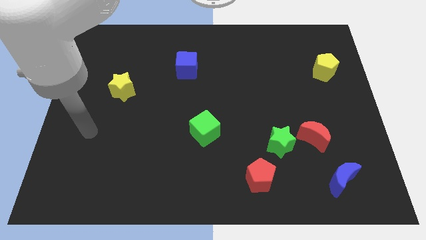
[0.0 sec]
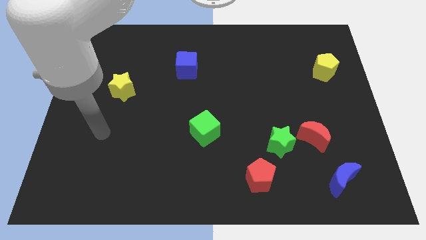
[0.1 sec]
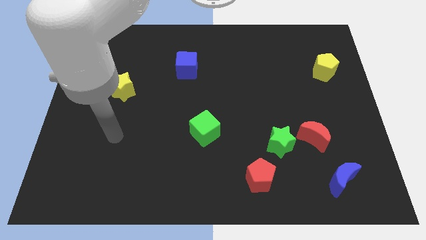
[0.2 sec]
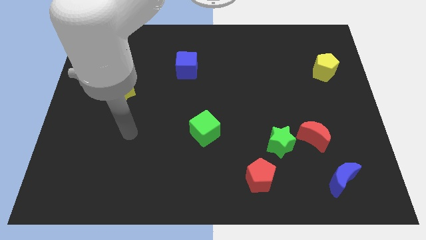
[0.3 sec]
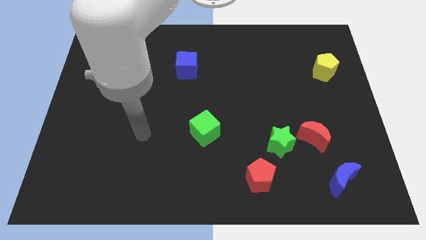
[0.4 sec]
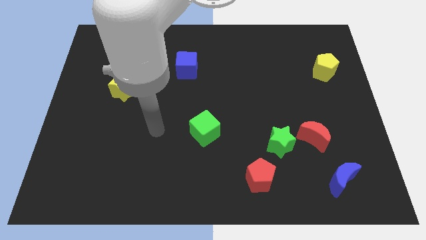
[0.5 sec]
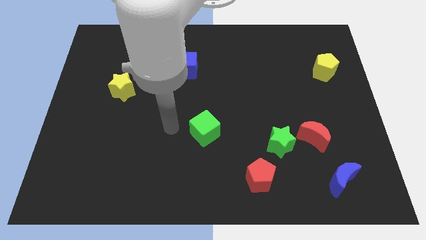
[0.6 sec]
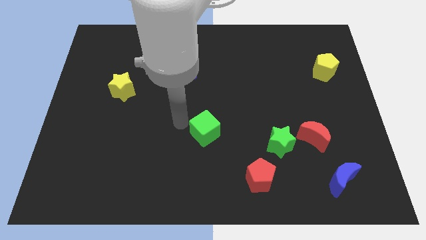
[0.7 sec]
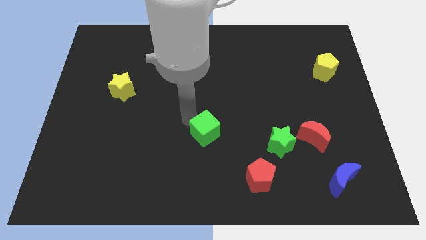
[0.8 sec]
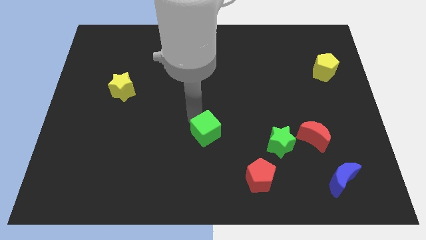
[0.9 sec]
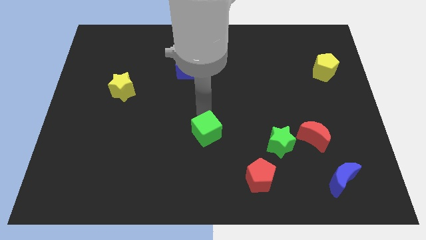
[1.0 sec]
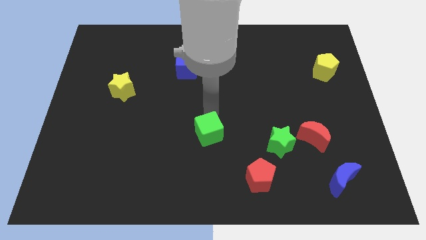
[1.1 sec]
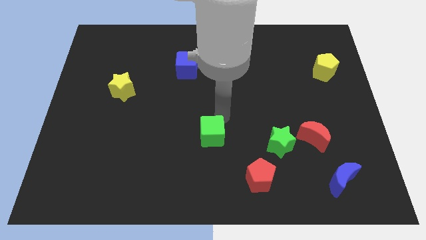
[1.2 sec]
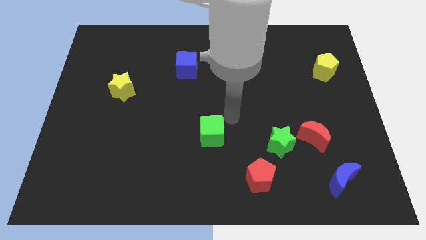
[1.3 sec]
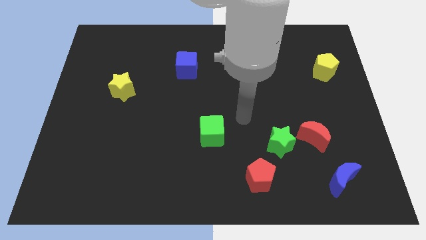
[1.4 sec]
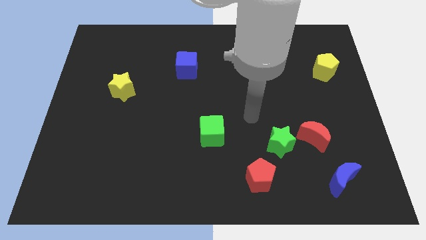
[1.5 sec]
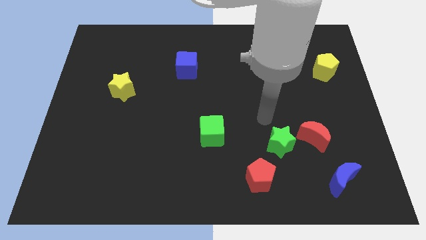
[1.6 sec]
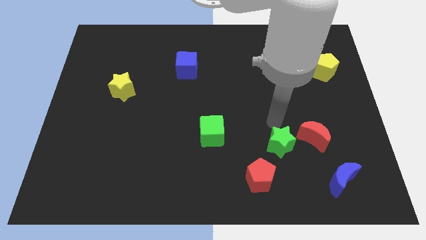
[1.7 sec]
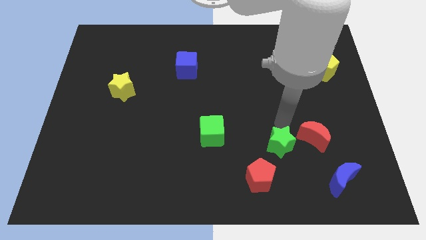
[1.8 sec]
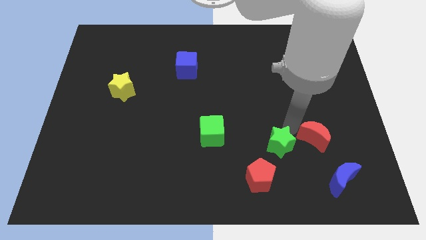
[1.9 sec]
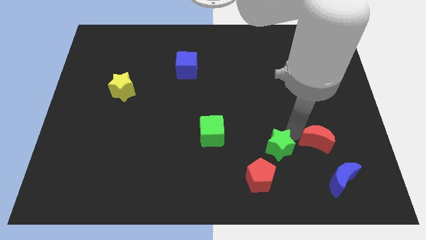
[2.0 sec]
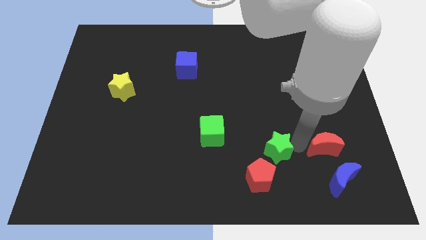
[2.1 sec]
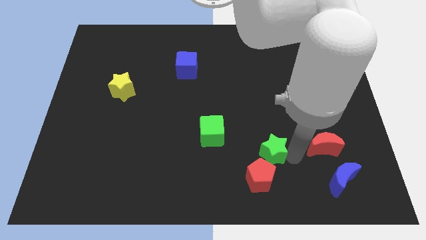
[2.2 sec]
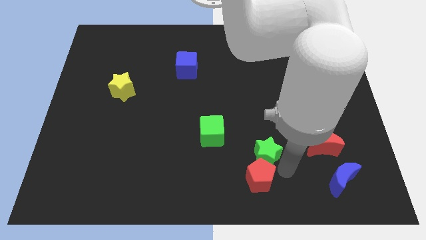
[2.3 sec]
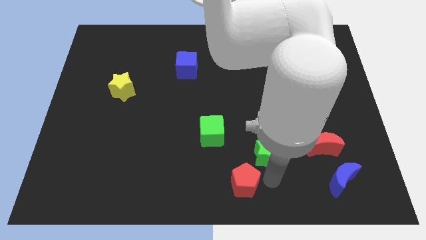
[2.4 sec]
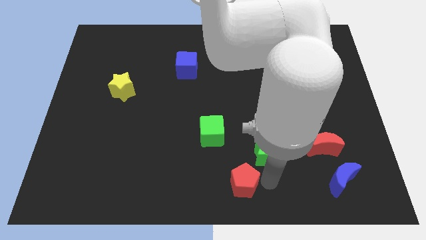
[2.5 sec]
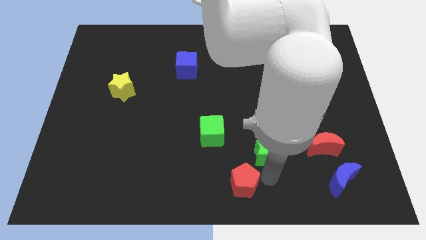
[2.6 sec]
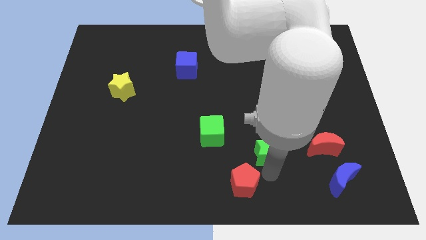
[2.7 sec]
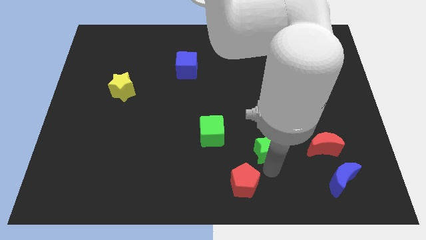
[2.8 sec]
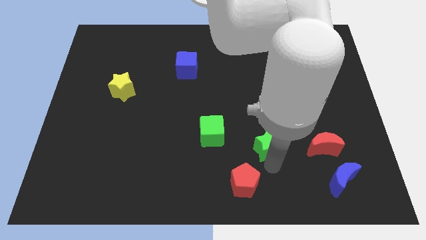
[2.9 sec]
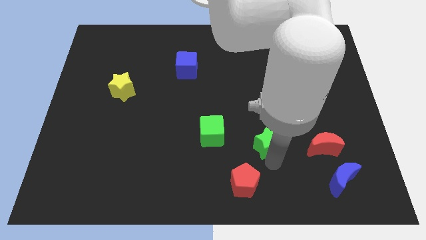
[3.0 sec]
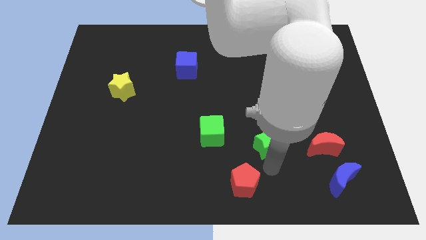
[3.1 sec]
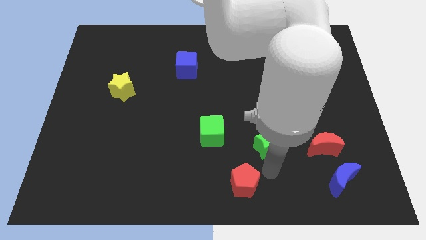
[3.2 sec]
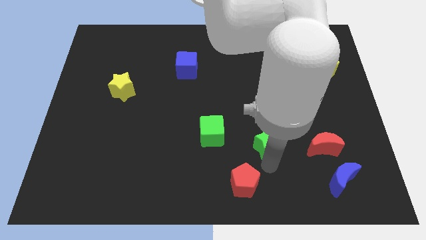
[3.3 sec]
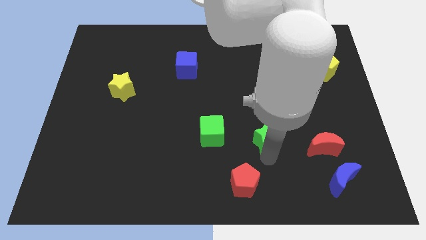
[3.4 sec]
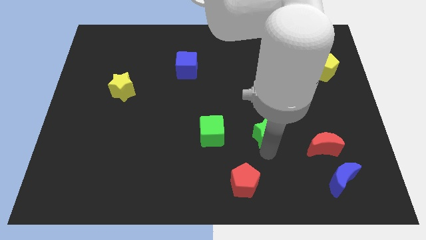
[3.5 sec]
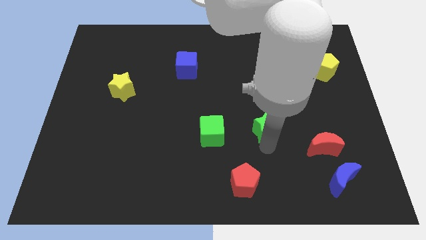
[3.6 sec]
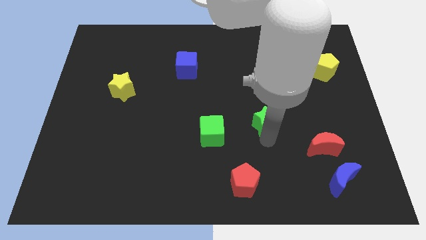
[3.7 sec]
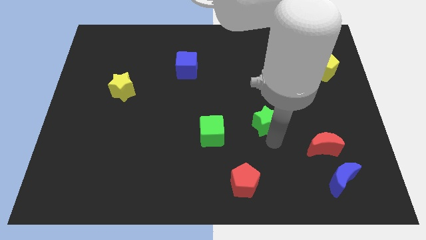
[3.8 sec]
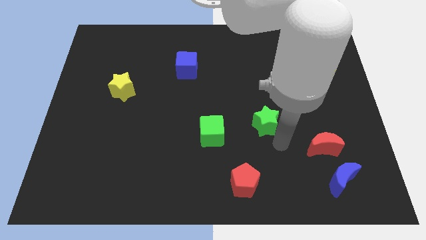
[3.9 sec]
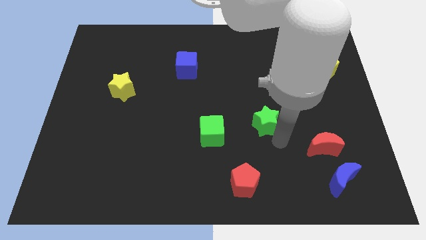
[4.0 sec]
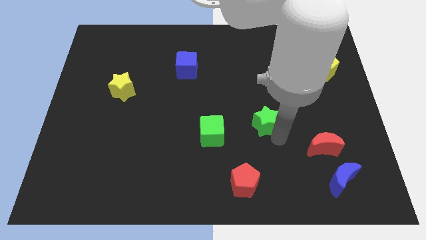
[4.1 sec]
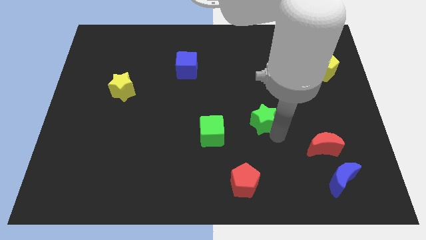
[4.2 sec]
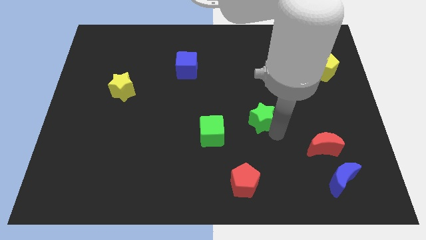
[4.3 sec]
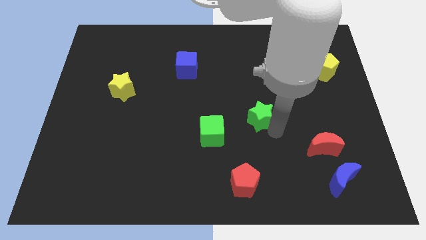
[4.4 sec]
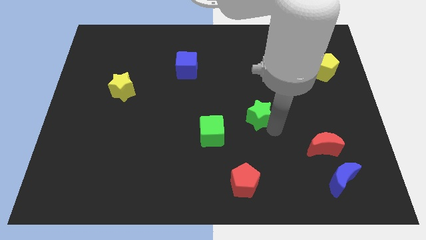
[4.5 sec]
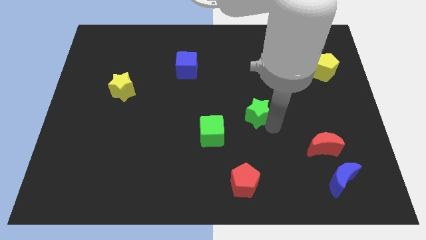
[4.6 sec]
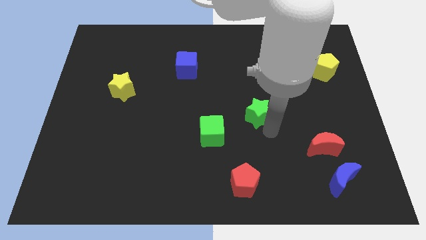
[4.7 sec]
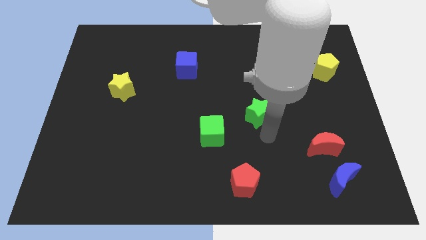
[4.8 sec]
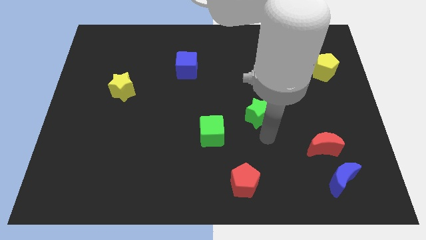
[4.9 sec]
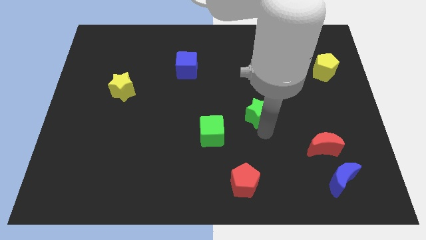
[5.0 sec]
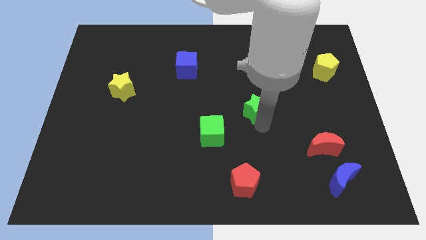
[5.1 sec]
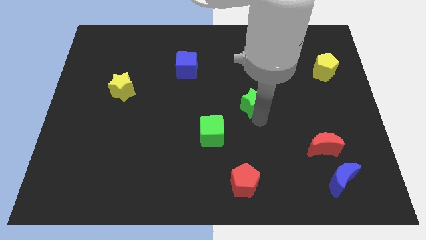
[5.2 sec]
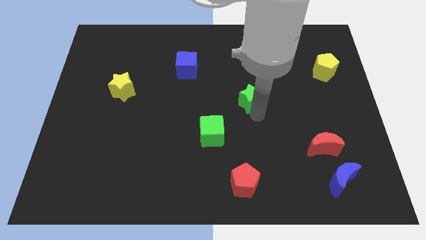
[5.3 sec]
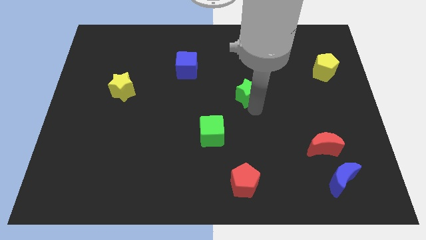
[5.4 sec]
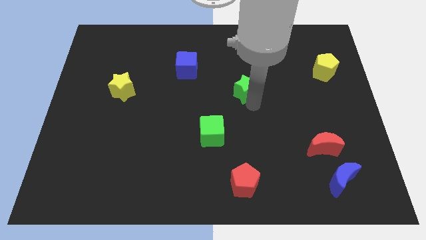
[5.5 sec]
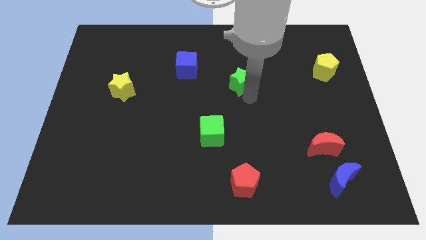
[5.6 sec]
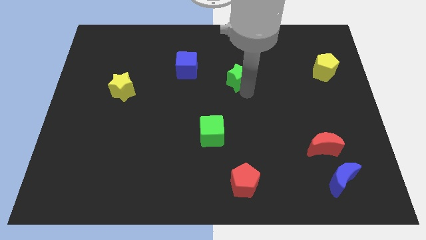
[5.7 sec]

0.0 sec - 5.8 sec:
push the green star just right of the blue cube

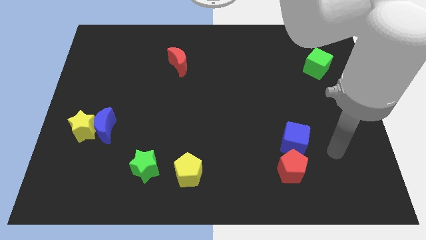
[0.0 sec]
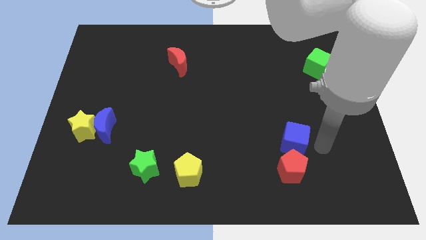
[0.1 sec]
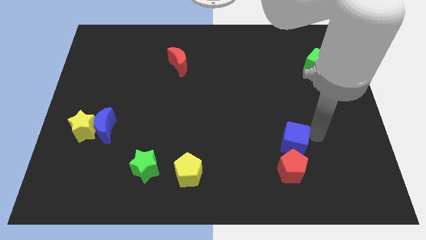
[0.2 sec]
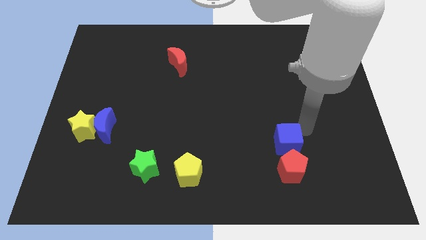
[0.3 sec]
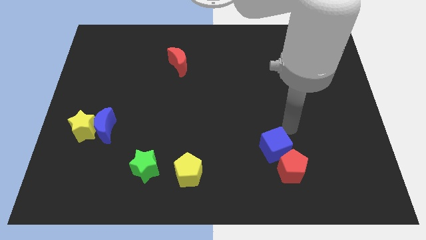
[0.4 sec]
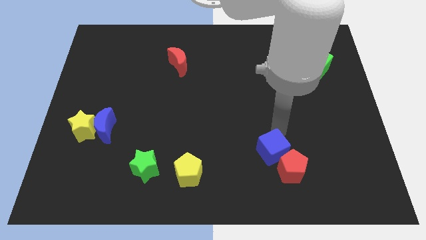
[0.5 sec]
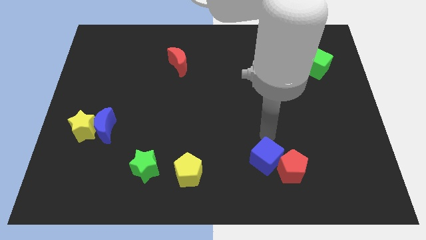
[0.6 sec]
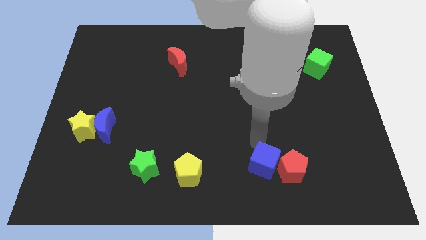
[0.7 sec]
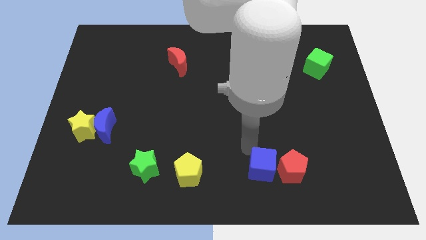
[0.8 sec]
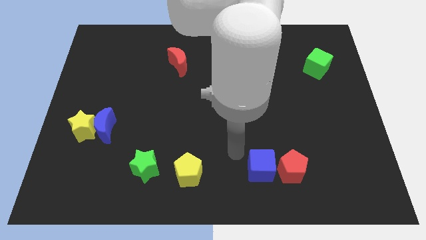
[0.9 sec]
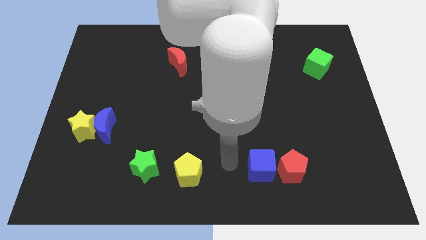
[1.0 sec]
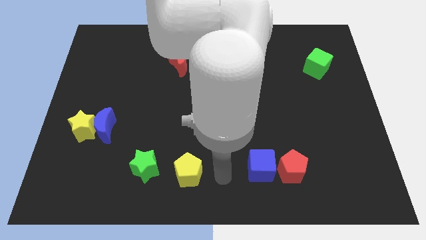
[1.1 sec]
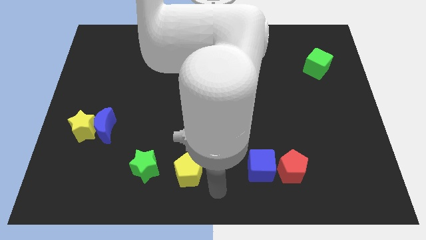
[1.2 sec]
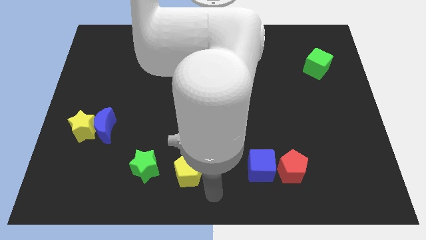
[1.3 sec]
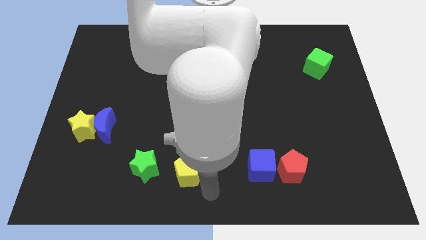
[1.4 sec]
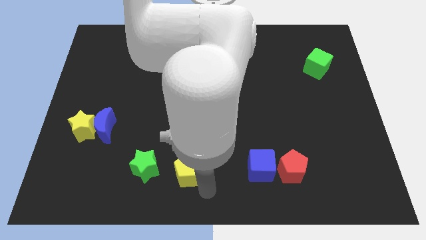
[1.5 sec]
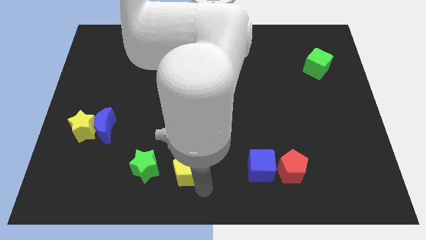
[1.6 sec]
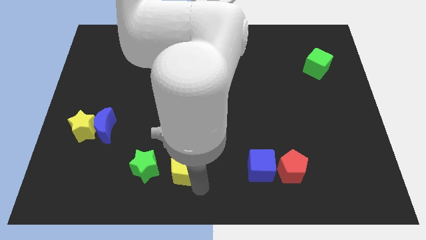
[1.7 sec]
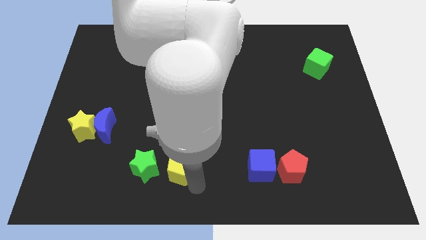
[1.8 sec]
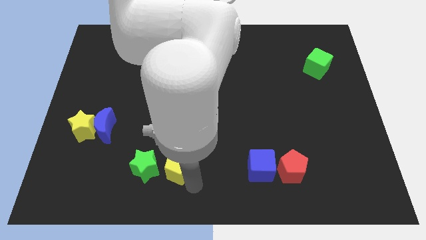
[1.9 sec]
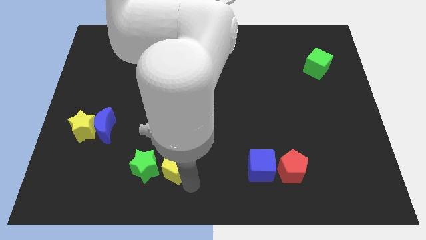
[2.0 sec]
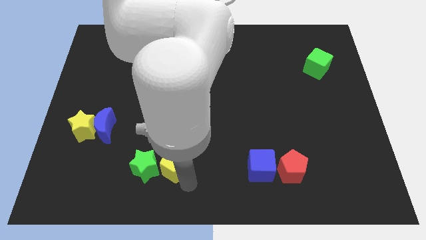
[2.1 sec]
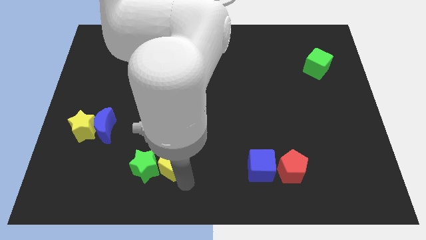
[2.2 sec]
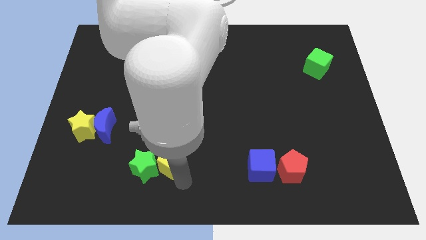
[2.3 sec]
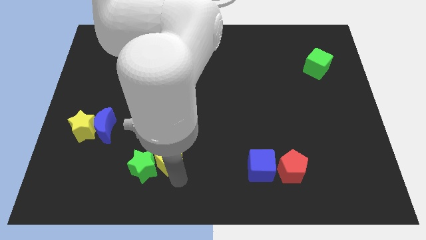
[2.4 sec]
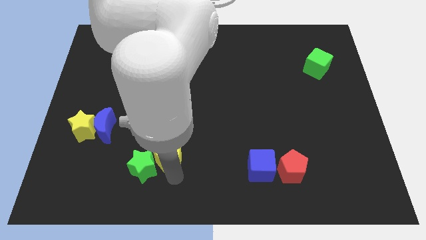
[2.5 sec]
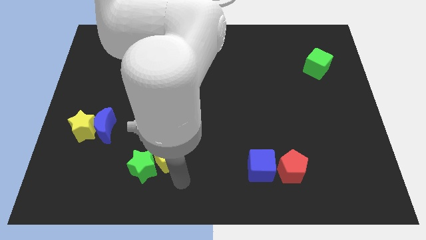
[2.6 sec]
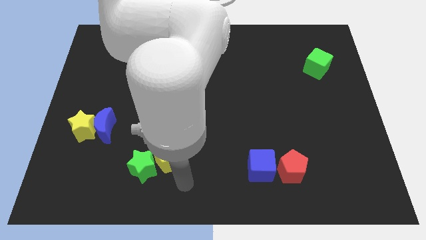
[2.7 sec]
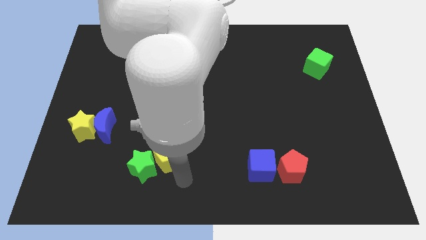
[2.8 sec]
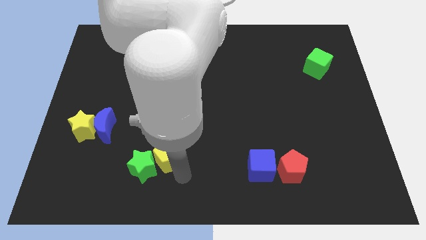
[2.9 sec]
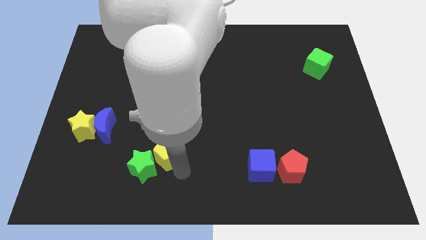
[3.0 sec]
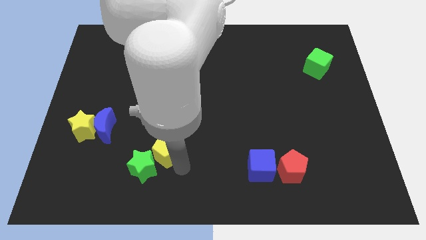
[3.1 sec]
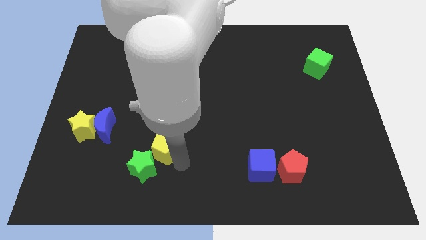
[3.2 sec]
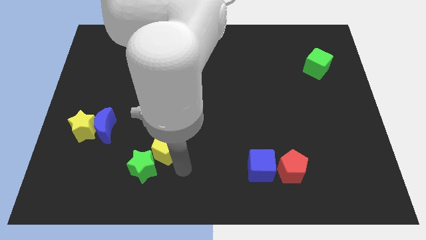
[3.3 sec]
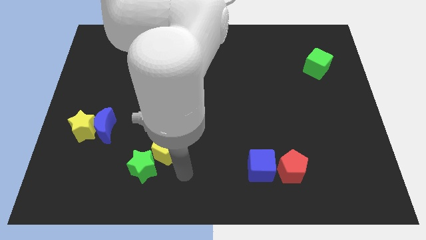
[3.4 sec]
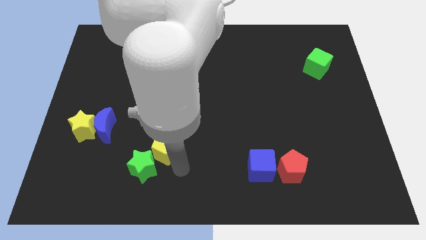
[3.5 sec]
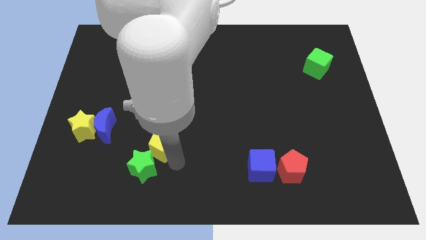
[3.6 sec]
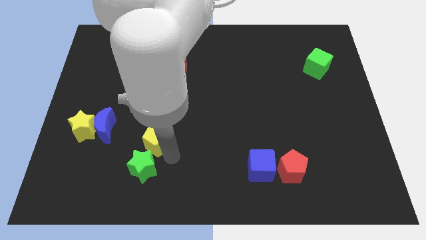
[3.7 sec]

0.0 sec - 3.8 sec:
push the yellow pentagon to the right of the blue moon
